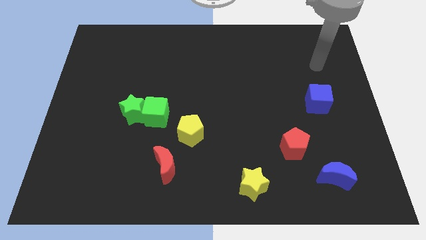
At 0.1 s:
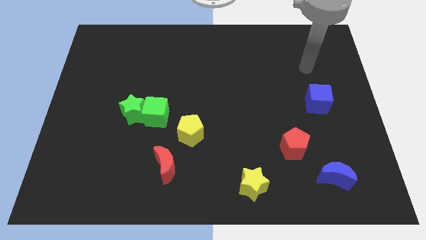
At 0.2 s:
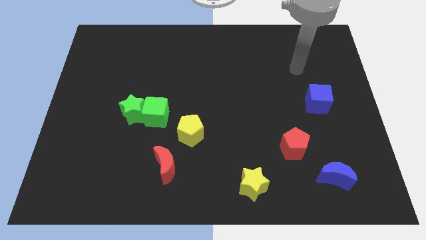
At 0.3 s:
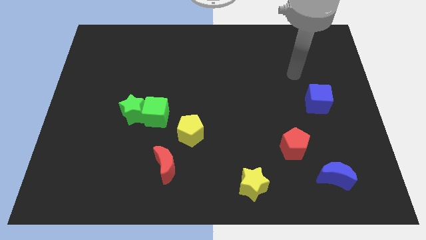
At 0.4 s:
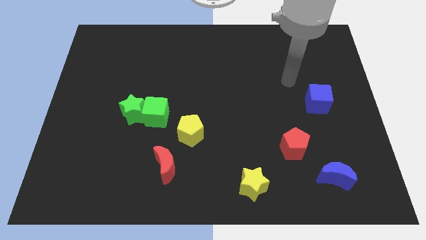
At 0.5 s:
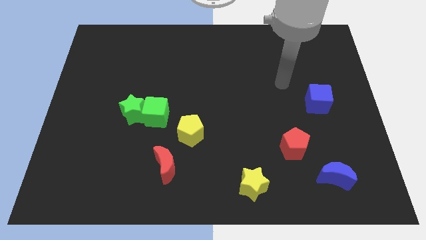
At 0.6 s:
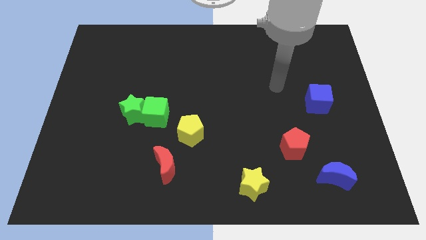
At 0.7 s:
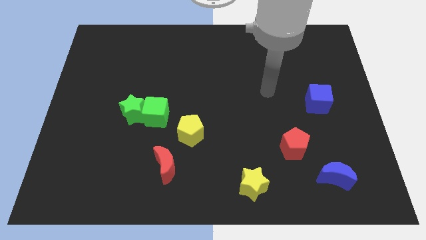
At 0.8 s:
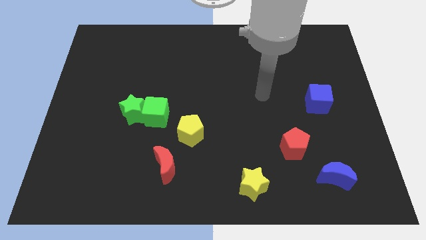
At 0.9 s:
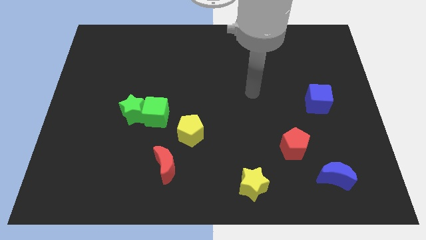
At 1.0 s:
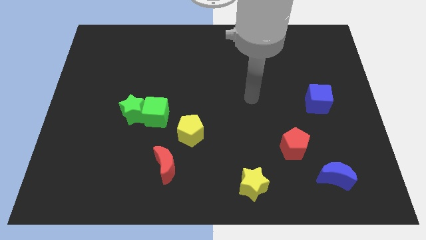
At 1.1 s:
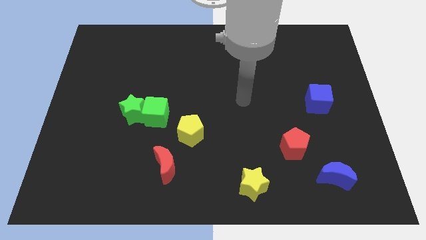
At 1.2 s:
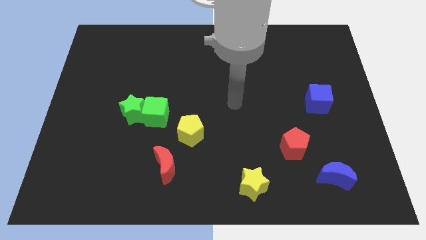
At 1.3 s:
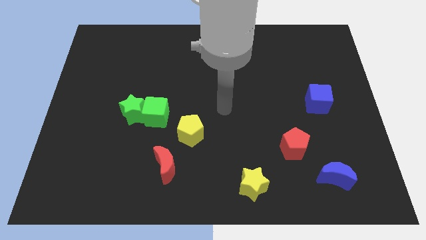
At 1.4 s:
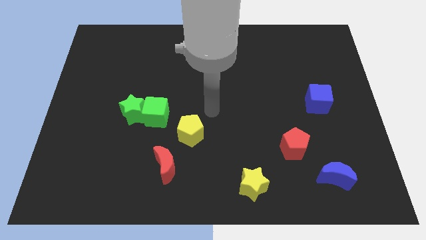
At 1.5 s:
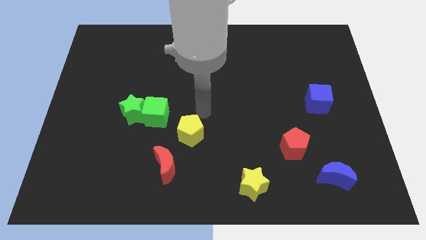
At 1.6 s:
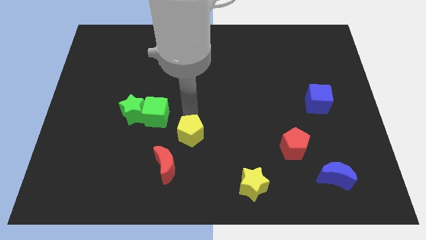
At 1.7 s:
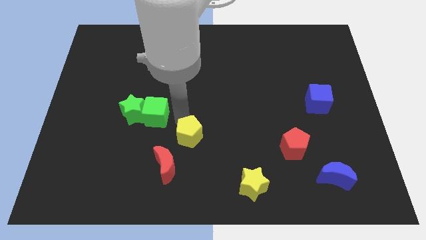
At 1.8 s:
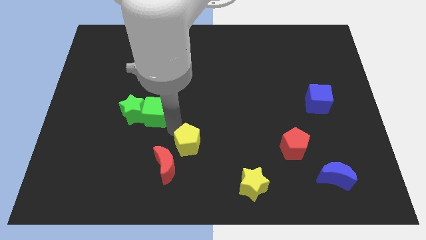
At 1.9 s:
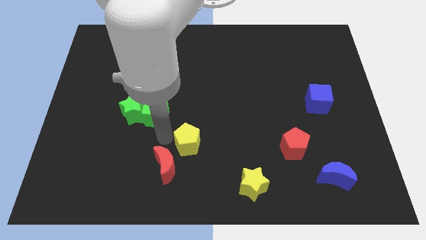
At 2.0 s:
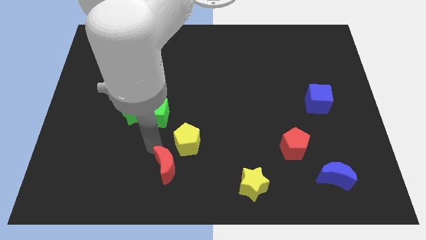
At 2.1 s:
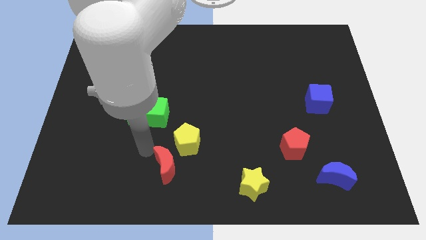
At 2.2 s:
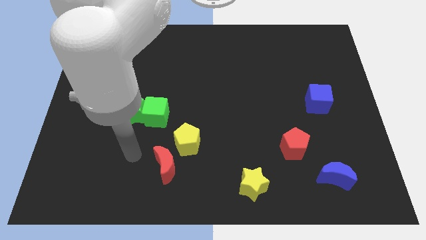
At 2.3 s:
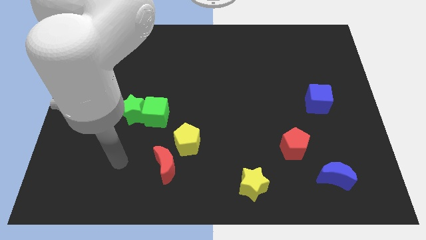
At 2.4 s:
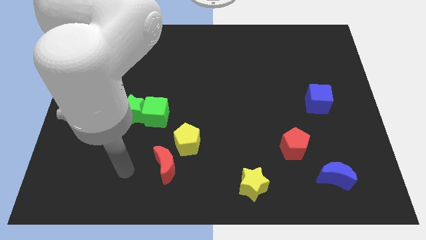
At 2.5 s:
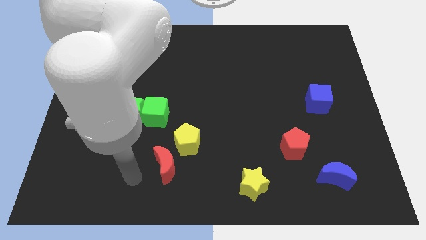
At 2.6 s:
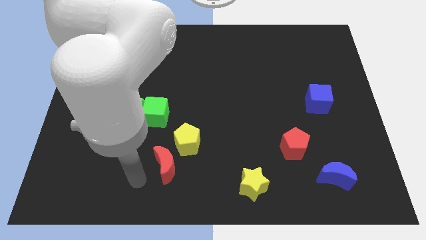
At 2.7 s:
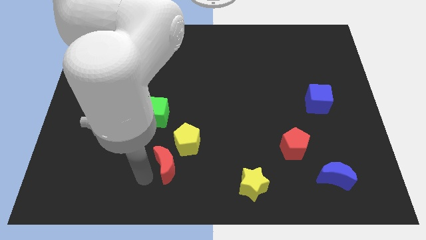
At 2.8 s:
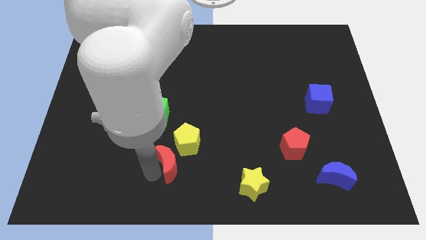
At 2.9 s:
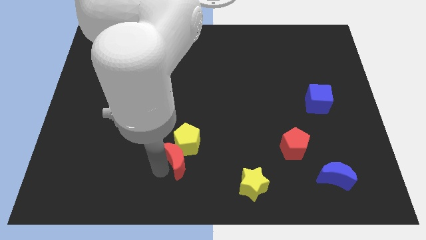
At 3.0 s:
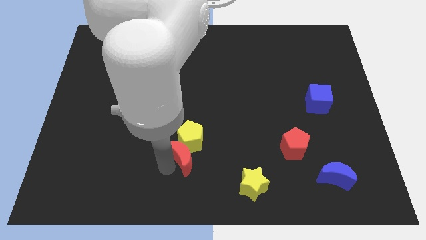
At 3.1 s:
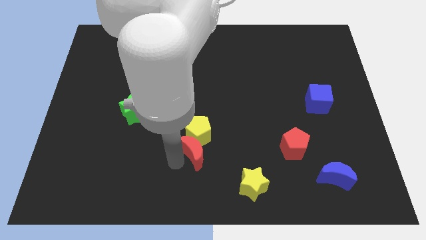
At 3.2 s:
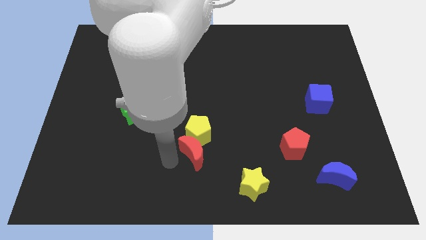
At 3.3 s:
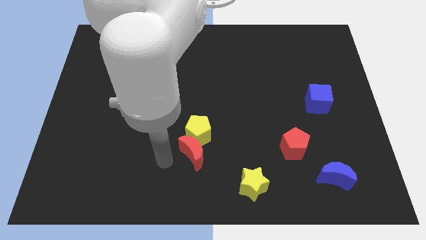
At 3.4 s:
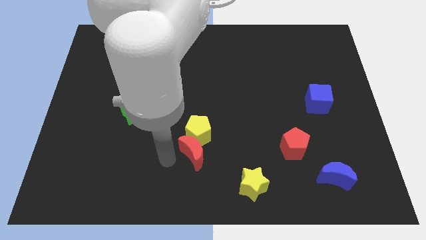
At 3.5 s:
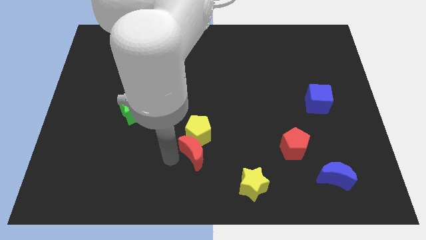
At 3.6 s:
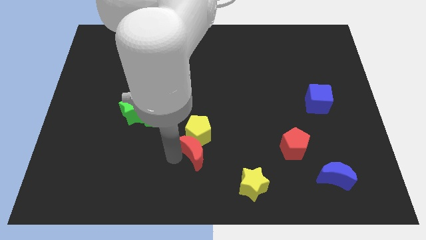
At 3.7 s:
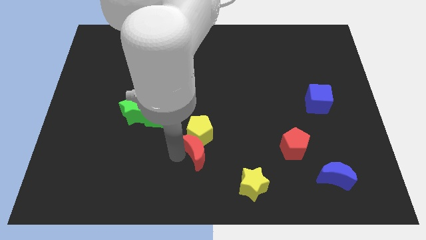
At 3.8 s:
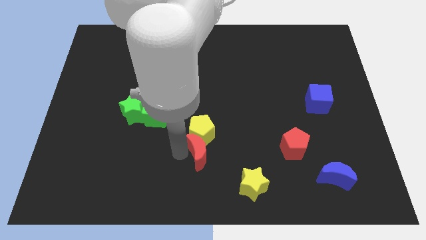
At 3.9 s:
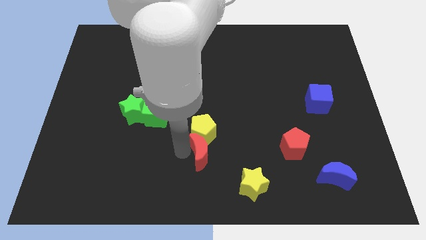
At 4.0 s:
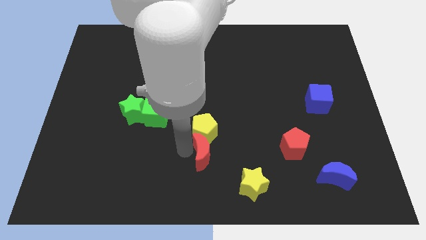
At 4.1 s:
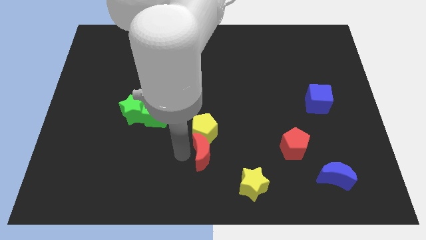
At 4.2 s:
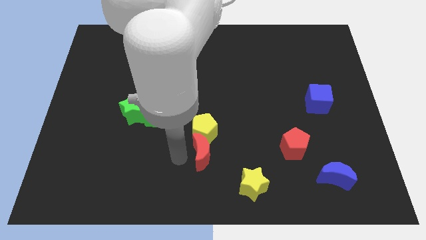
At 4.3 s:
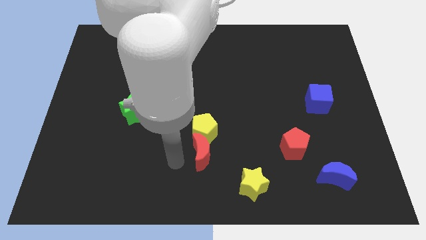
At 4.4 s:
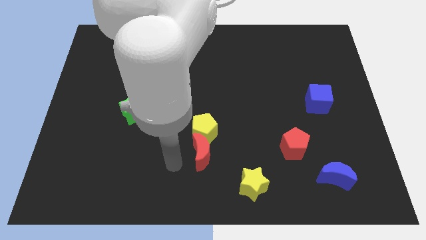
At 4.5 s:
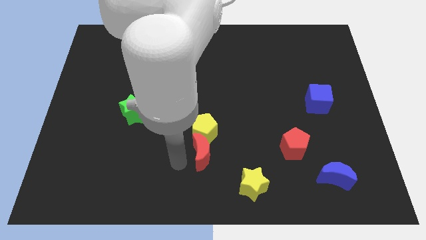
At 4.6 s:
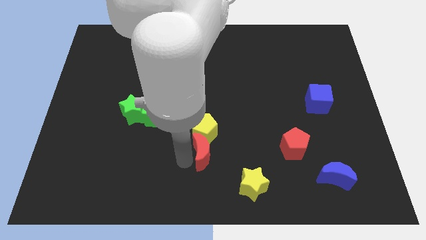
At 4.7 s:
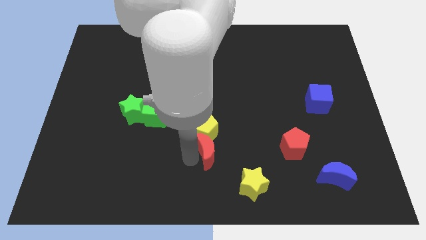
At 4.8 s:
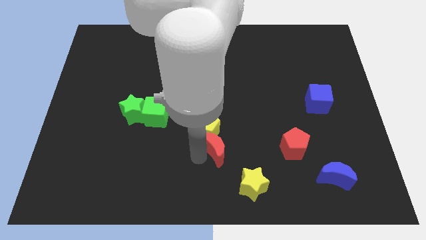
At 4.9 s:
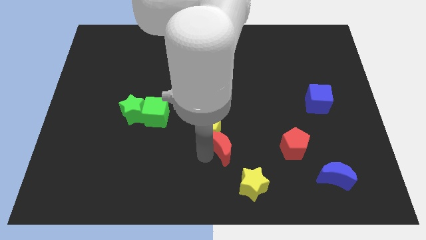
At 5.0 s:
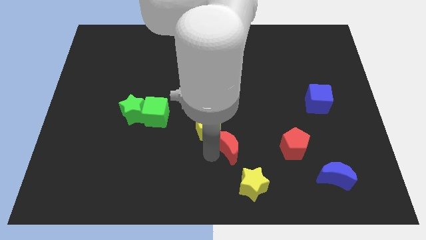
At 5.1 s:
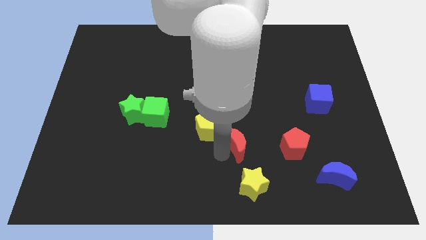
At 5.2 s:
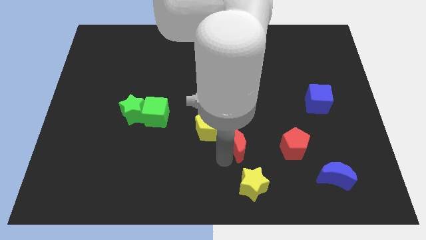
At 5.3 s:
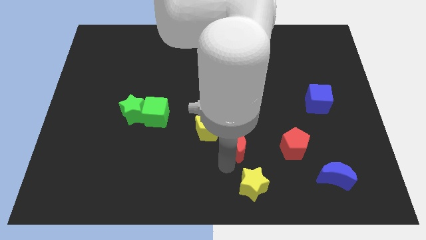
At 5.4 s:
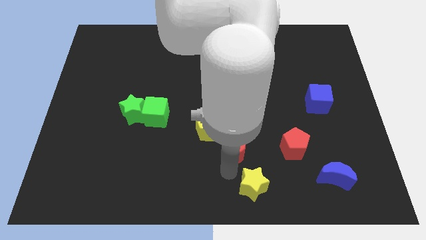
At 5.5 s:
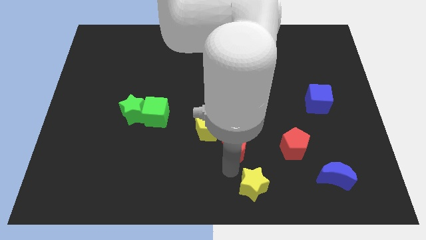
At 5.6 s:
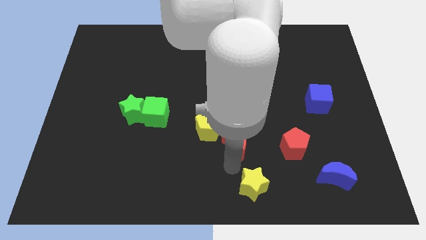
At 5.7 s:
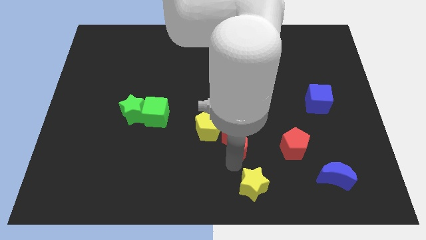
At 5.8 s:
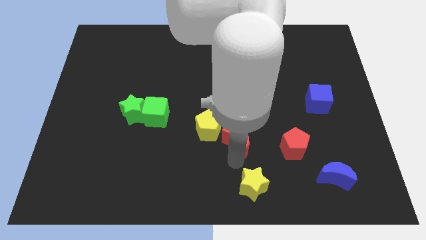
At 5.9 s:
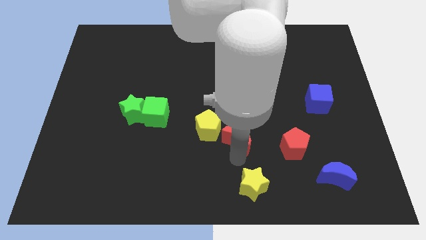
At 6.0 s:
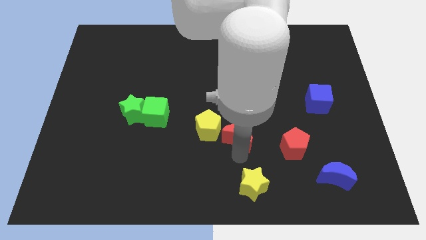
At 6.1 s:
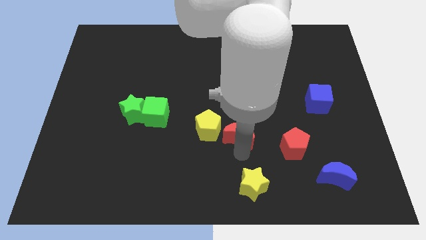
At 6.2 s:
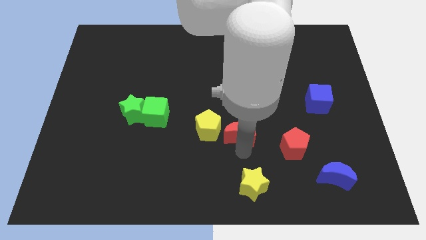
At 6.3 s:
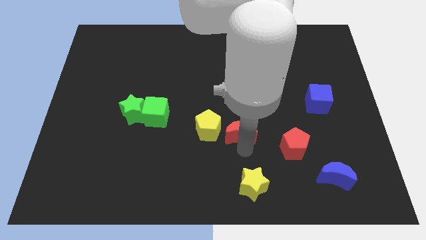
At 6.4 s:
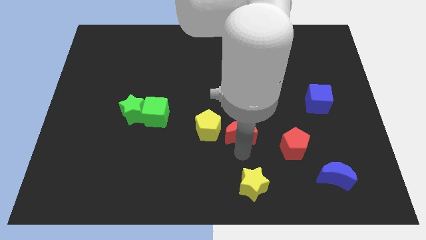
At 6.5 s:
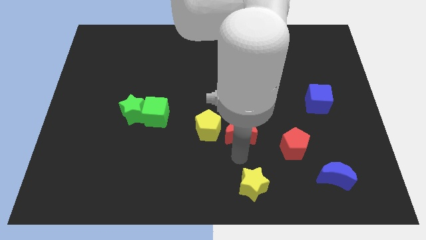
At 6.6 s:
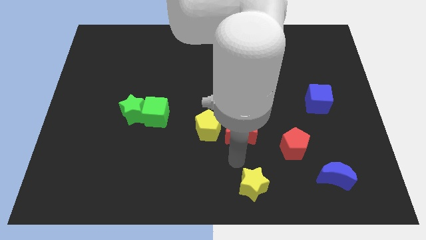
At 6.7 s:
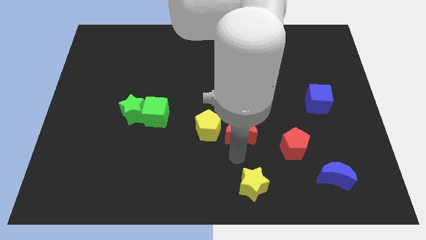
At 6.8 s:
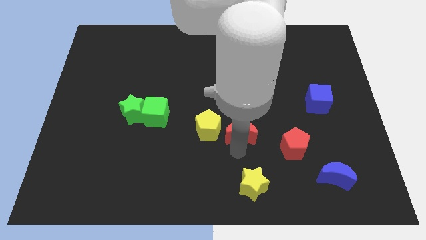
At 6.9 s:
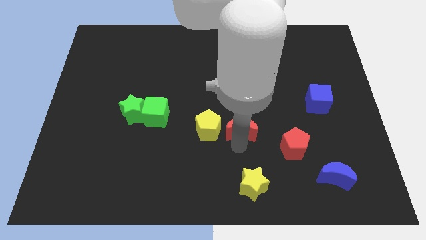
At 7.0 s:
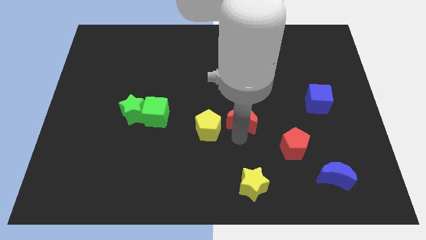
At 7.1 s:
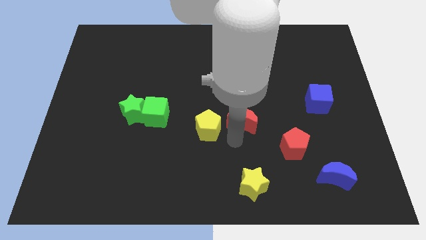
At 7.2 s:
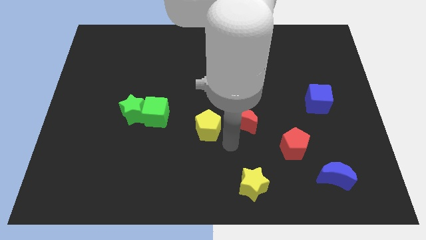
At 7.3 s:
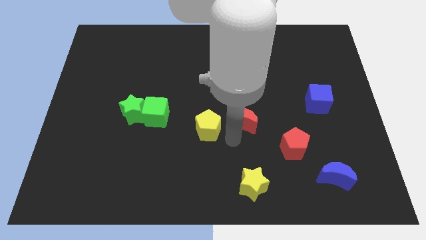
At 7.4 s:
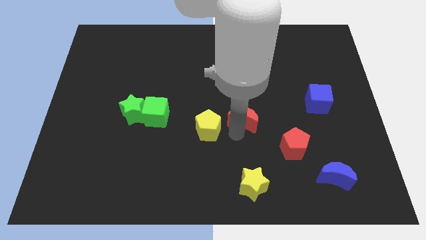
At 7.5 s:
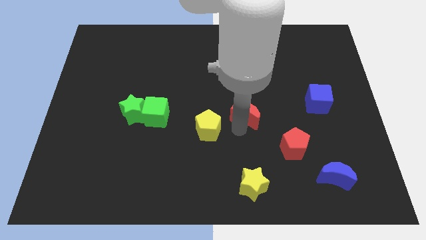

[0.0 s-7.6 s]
slide the red moon up and to the right
